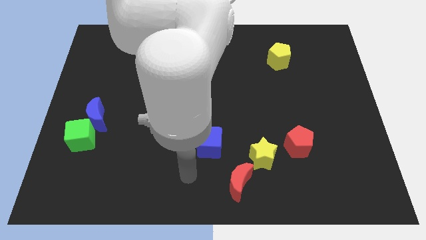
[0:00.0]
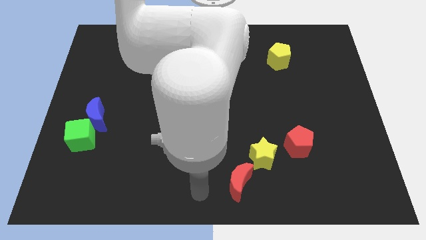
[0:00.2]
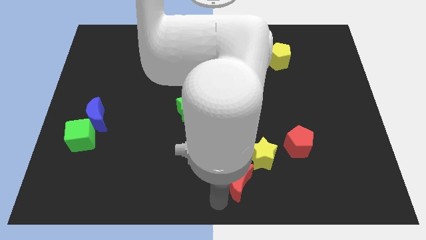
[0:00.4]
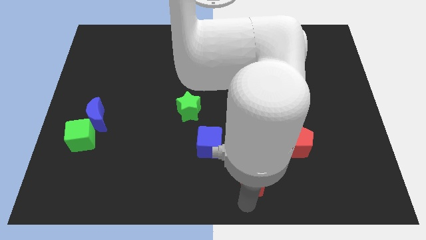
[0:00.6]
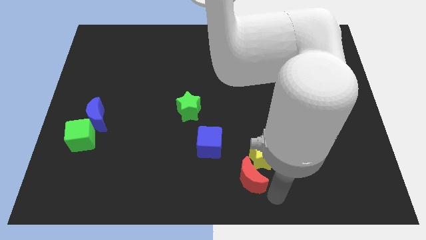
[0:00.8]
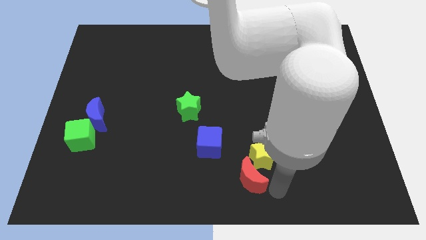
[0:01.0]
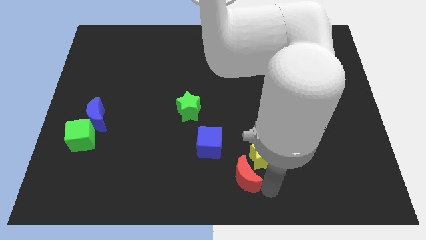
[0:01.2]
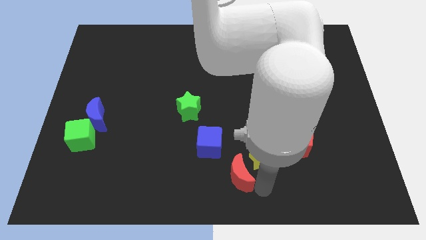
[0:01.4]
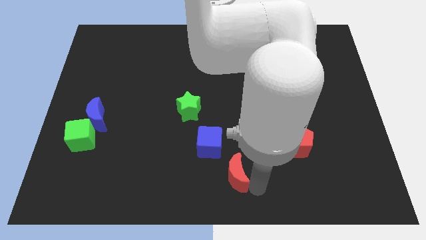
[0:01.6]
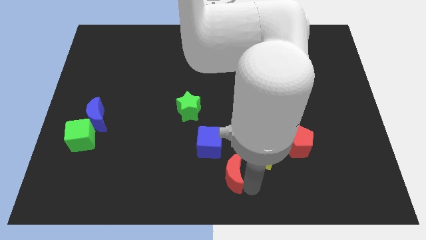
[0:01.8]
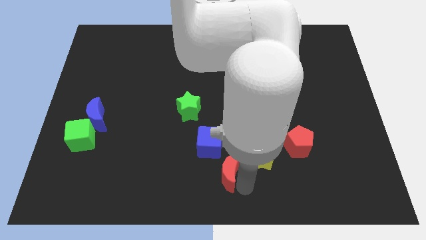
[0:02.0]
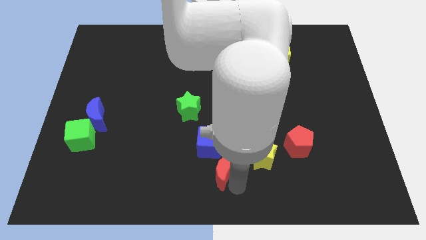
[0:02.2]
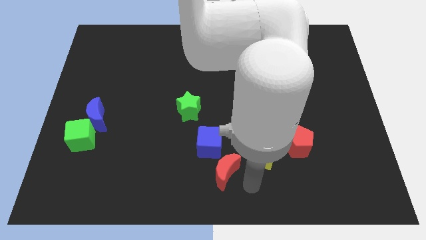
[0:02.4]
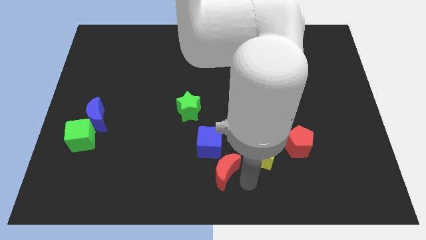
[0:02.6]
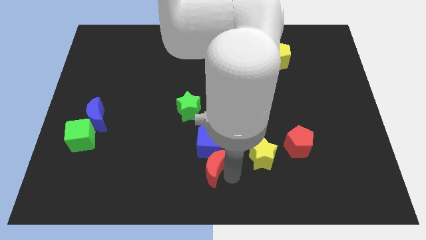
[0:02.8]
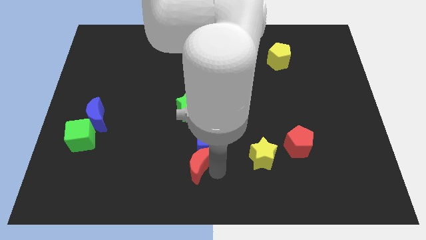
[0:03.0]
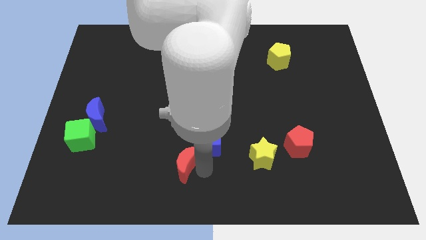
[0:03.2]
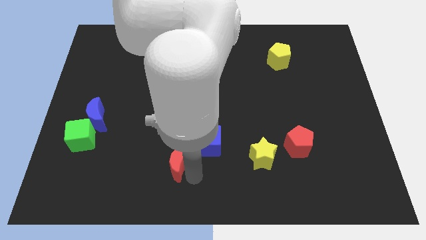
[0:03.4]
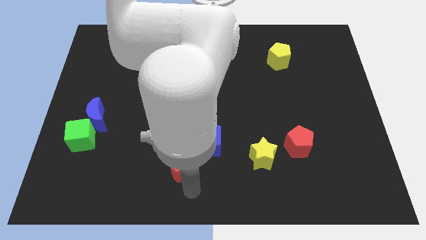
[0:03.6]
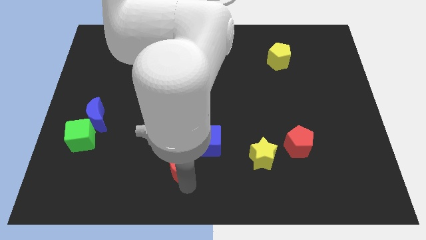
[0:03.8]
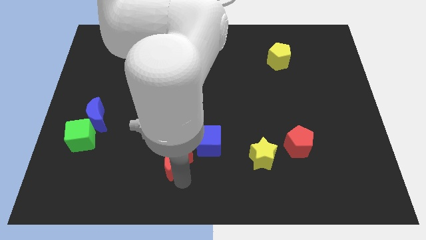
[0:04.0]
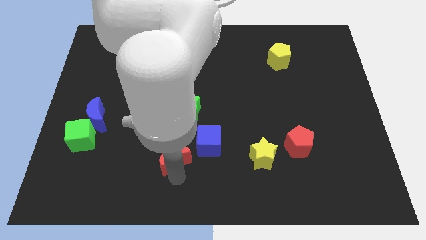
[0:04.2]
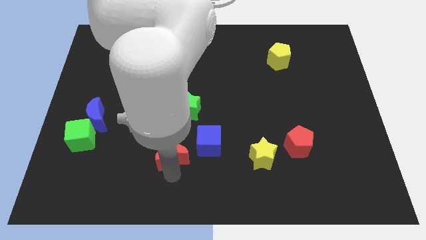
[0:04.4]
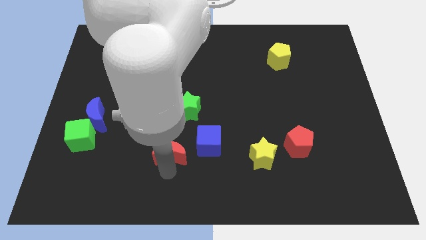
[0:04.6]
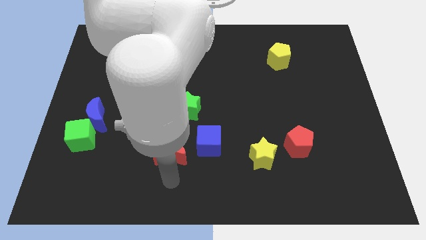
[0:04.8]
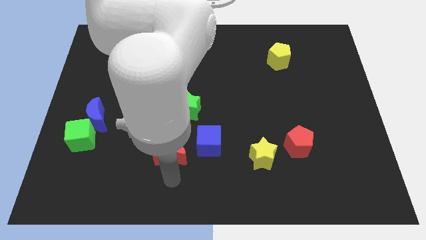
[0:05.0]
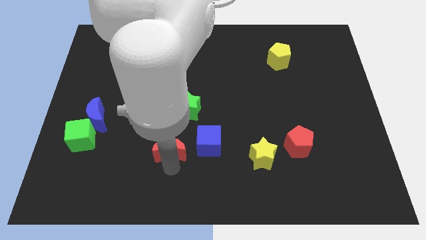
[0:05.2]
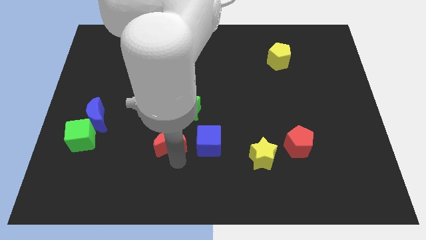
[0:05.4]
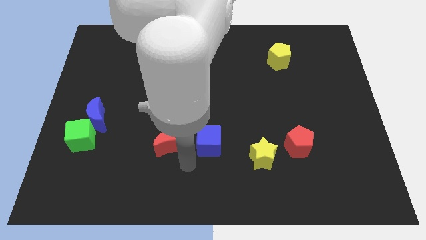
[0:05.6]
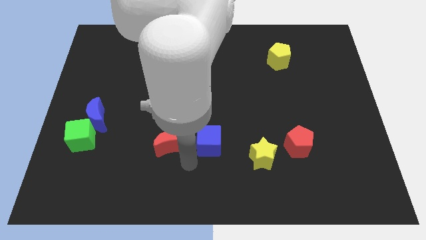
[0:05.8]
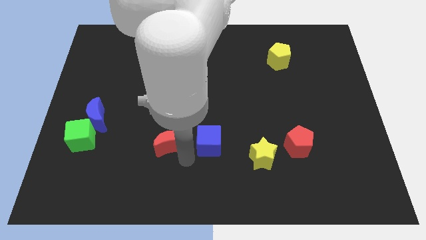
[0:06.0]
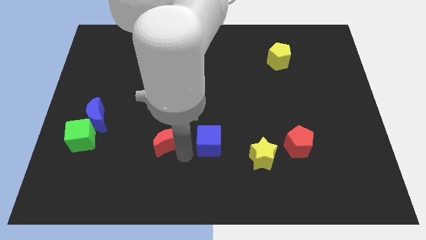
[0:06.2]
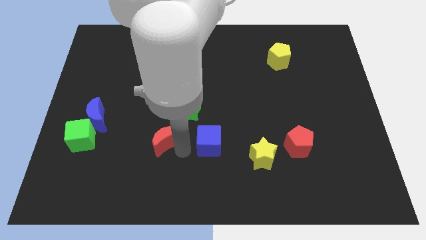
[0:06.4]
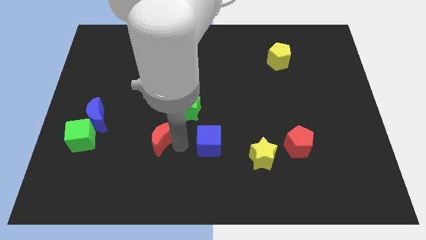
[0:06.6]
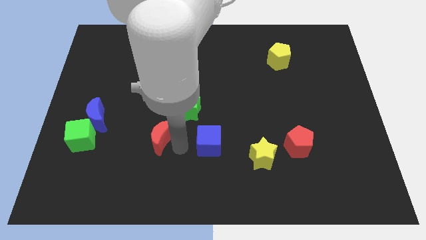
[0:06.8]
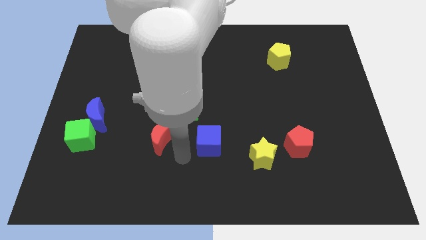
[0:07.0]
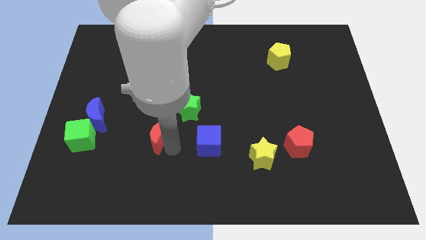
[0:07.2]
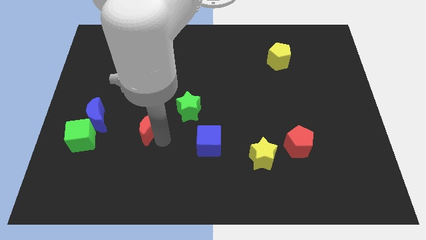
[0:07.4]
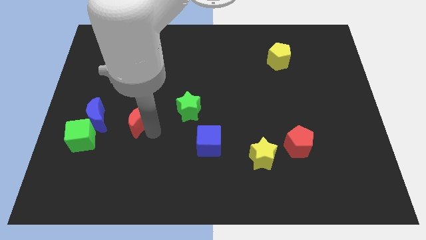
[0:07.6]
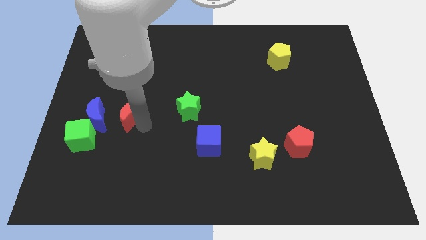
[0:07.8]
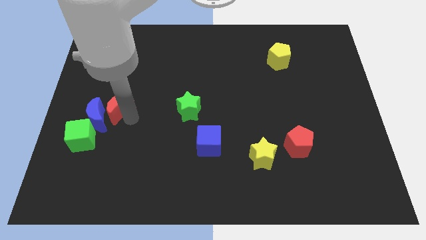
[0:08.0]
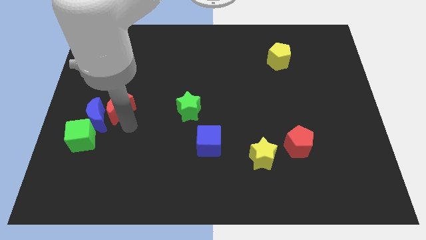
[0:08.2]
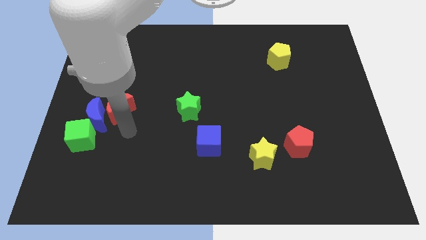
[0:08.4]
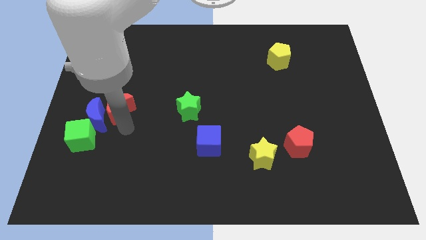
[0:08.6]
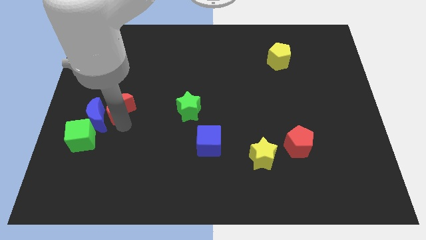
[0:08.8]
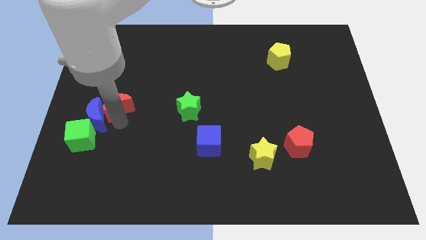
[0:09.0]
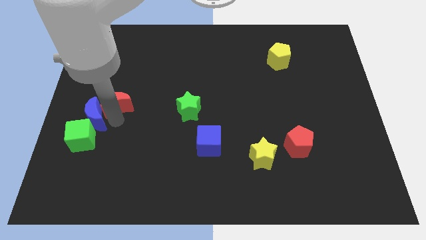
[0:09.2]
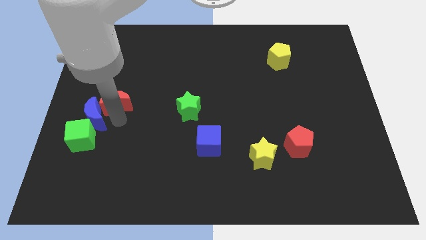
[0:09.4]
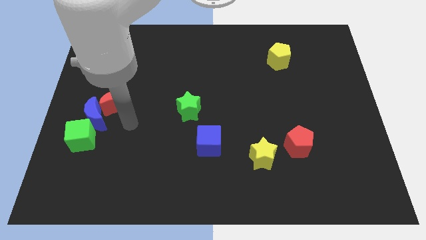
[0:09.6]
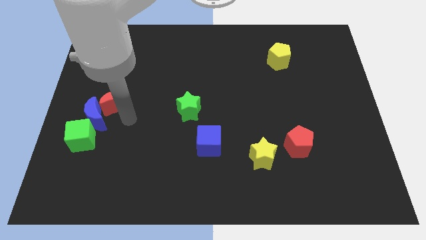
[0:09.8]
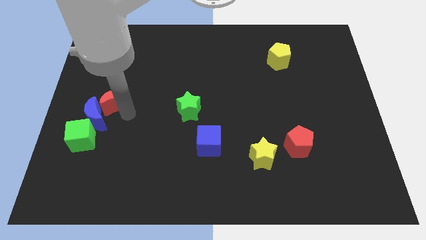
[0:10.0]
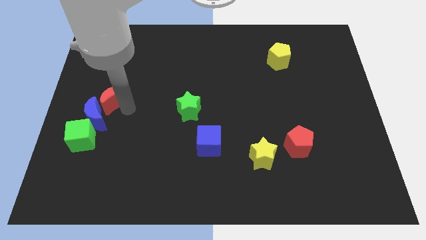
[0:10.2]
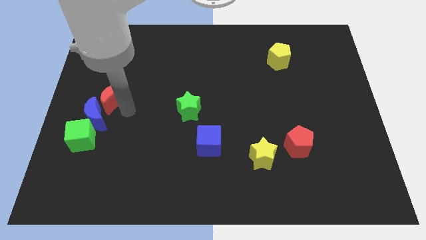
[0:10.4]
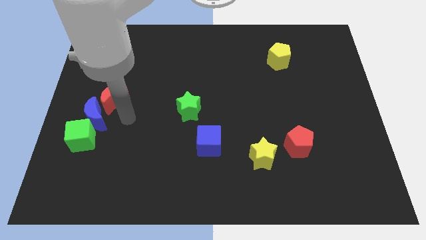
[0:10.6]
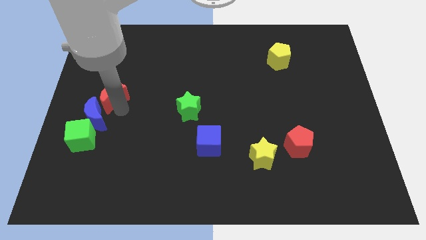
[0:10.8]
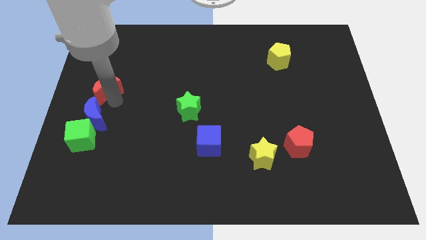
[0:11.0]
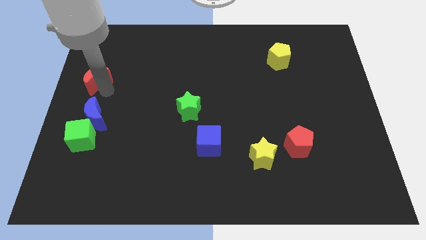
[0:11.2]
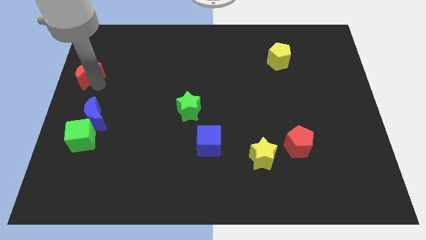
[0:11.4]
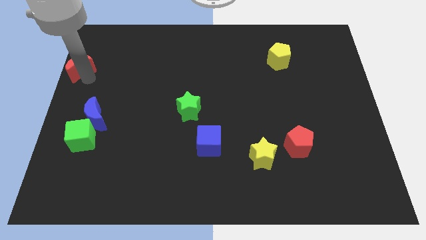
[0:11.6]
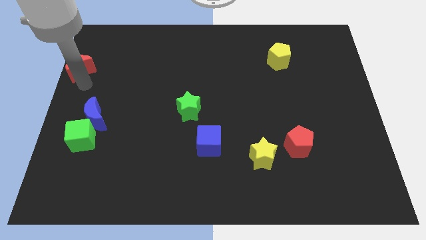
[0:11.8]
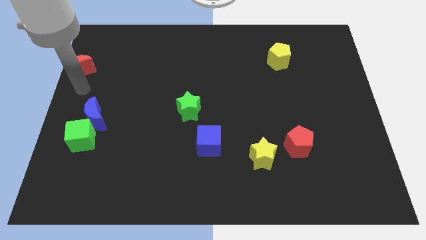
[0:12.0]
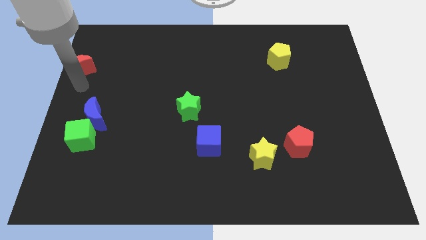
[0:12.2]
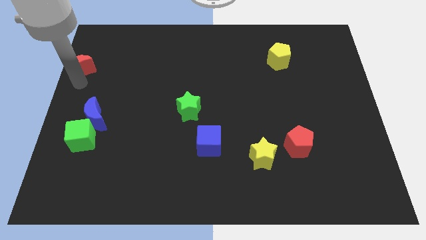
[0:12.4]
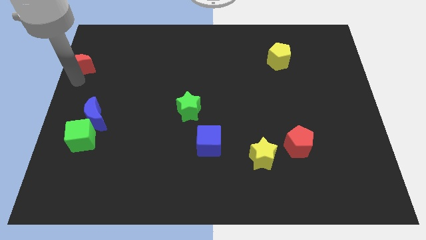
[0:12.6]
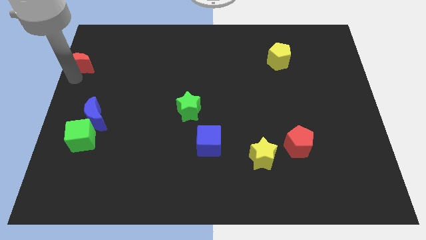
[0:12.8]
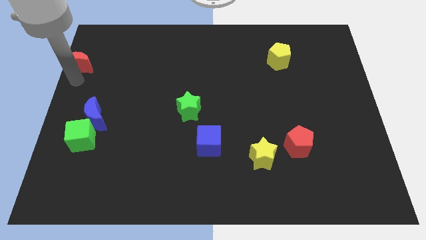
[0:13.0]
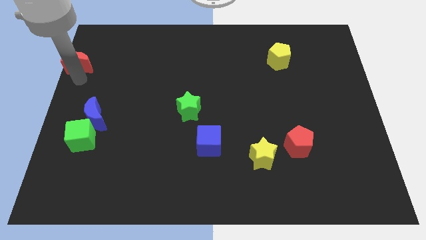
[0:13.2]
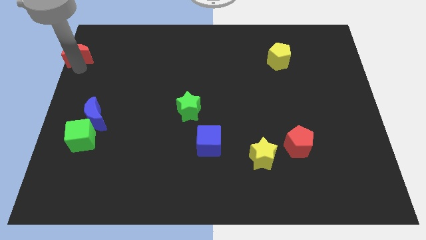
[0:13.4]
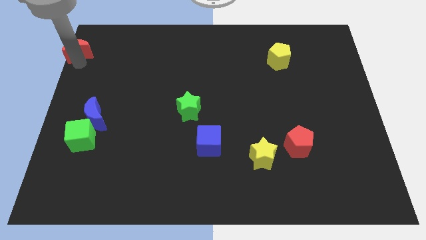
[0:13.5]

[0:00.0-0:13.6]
push the red moon to the top left of the board
